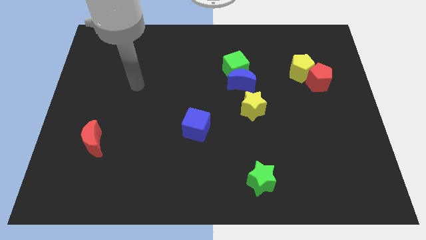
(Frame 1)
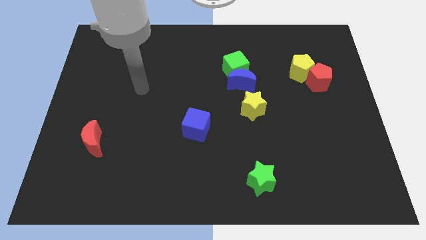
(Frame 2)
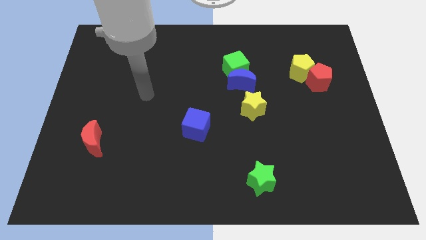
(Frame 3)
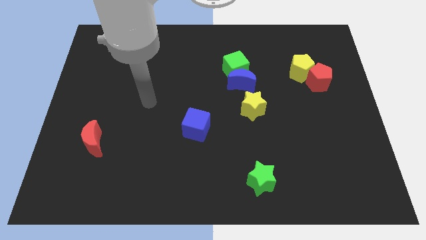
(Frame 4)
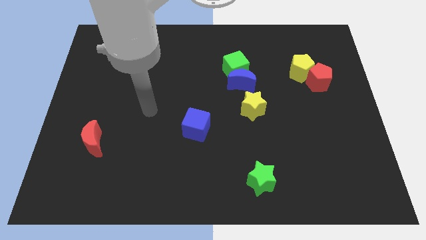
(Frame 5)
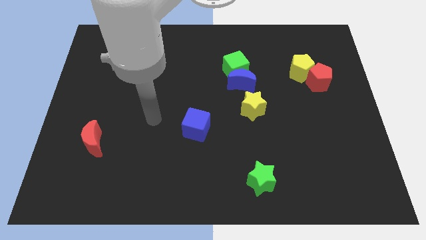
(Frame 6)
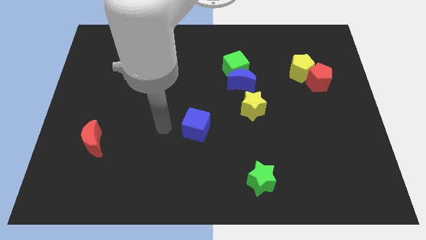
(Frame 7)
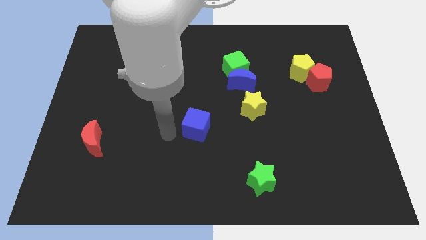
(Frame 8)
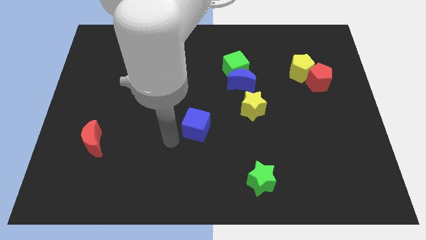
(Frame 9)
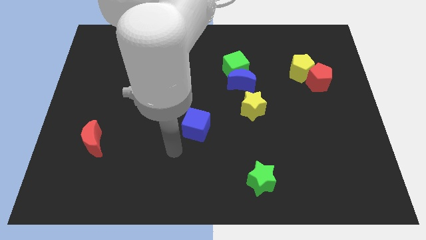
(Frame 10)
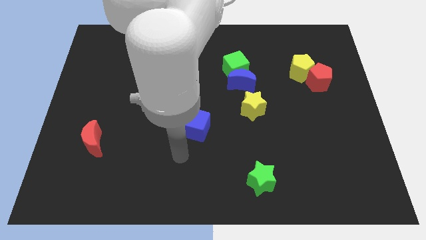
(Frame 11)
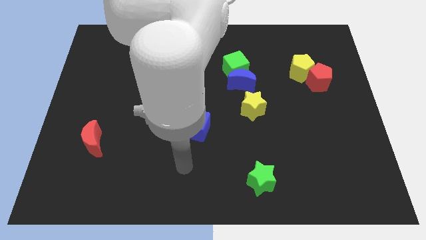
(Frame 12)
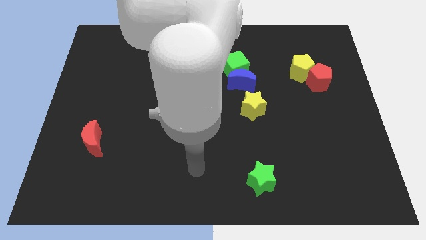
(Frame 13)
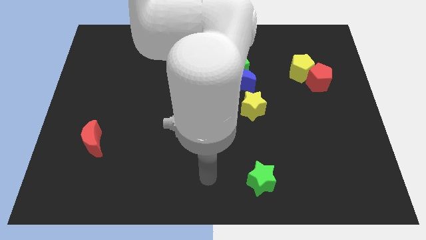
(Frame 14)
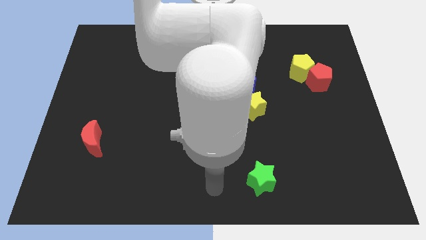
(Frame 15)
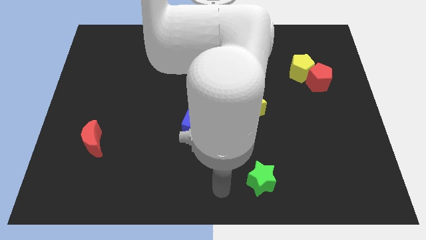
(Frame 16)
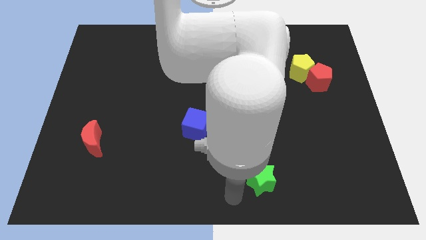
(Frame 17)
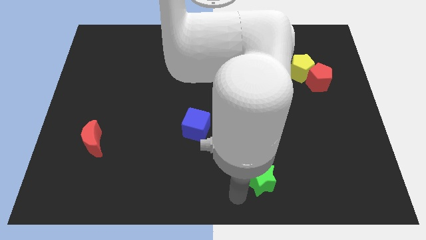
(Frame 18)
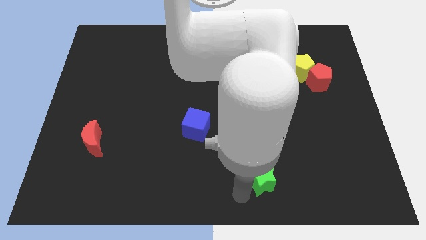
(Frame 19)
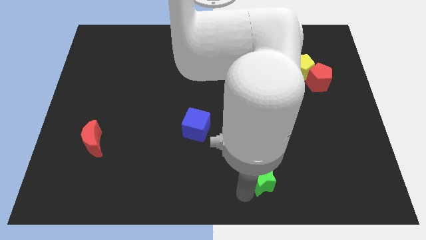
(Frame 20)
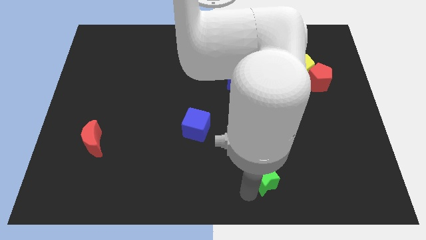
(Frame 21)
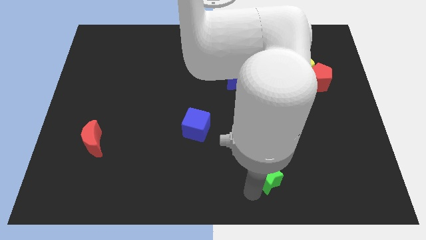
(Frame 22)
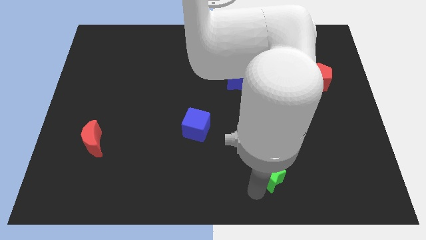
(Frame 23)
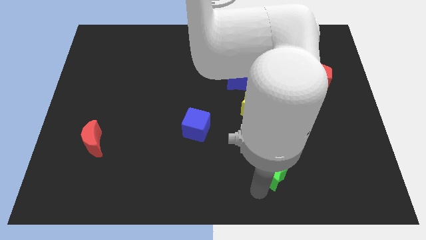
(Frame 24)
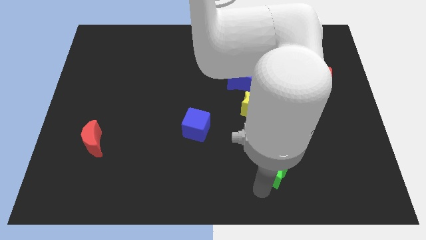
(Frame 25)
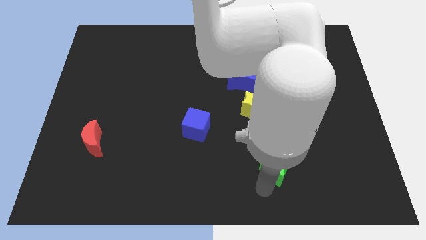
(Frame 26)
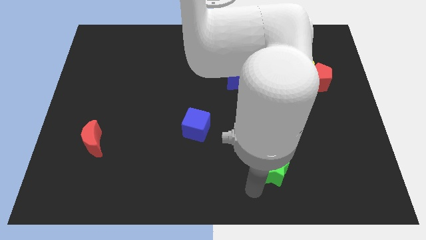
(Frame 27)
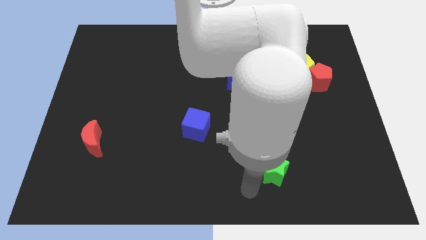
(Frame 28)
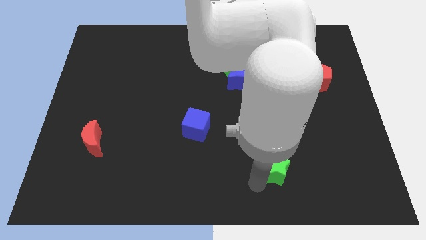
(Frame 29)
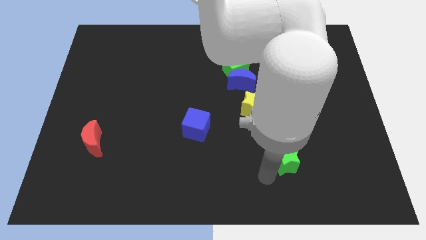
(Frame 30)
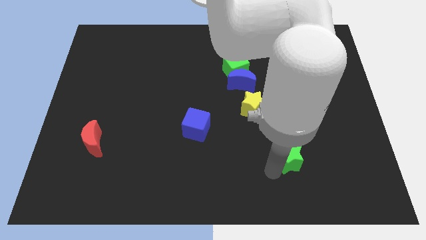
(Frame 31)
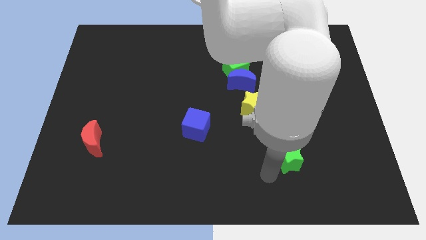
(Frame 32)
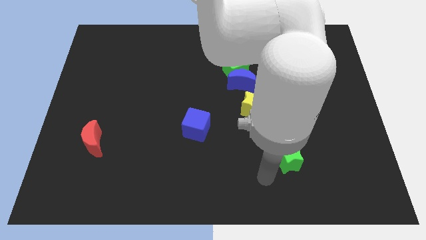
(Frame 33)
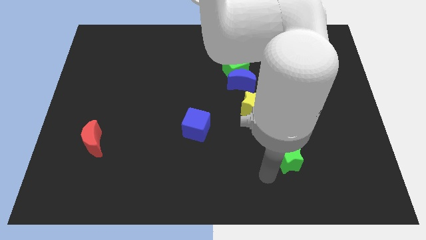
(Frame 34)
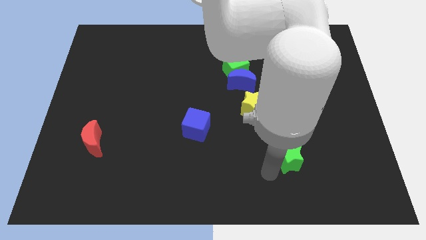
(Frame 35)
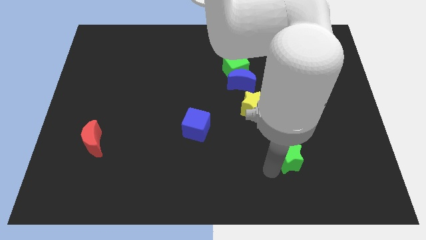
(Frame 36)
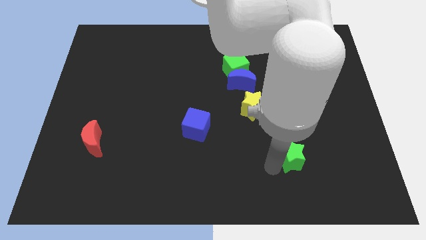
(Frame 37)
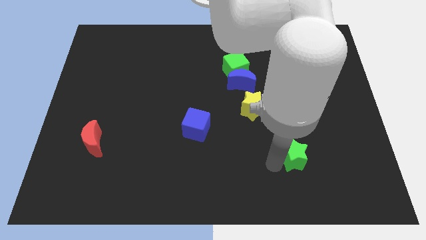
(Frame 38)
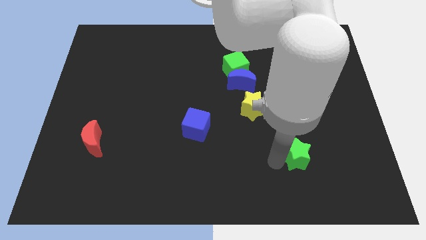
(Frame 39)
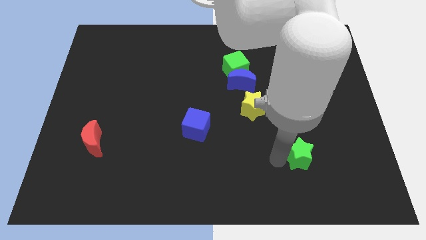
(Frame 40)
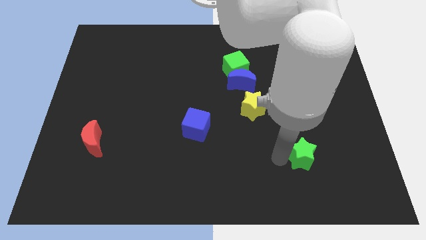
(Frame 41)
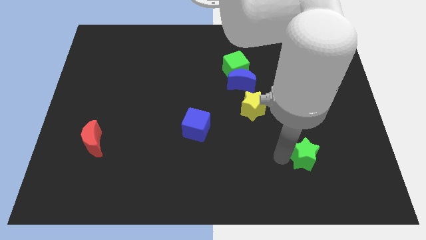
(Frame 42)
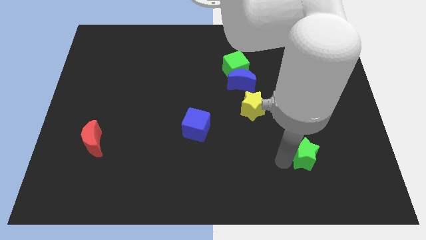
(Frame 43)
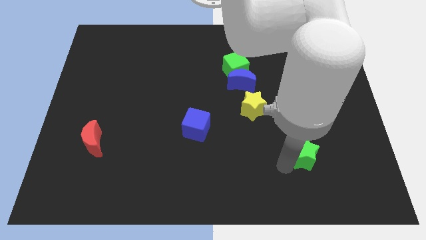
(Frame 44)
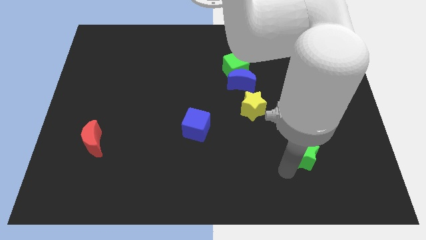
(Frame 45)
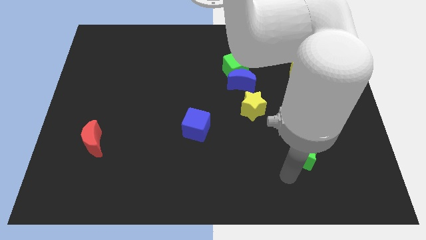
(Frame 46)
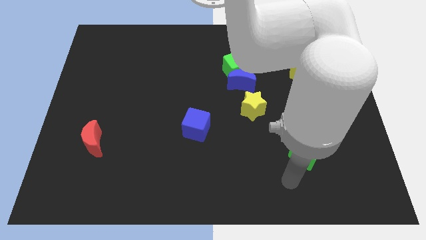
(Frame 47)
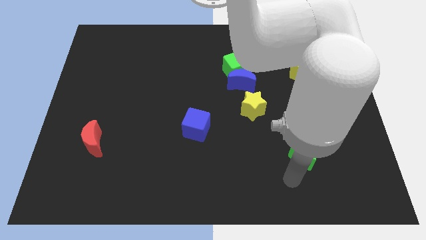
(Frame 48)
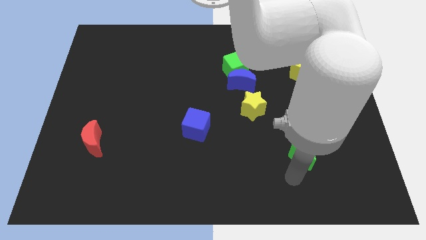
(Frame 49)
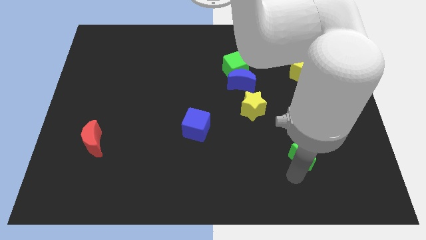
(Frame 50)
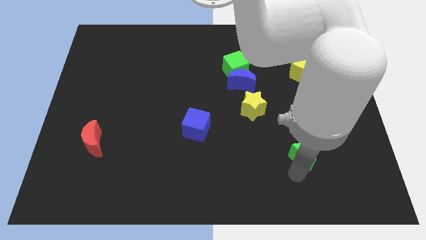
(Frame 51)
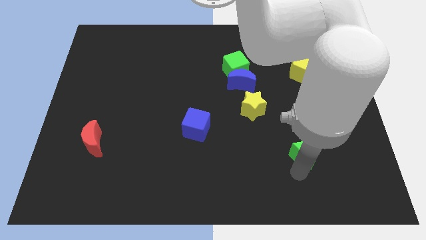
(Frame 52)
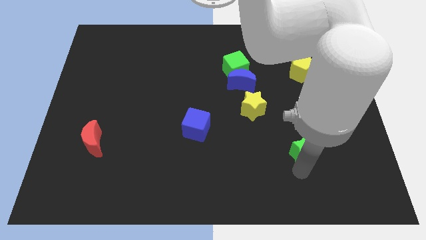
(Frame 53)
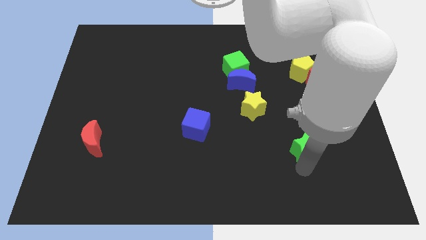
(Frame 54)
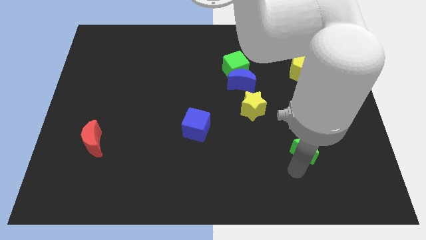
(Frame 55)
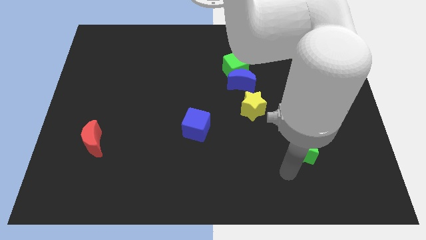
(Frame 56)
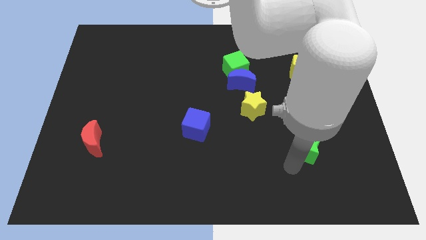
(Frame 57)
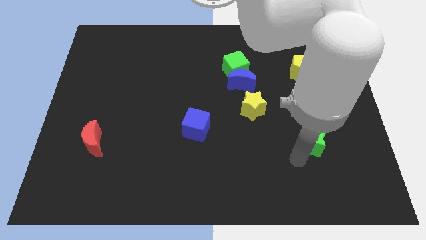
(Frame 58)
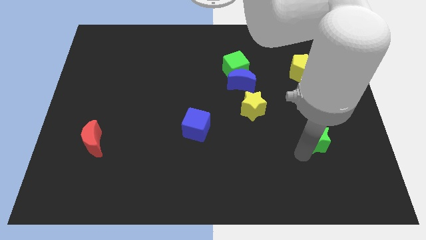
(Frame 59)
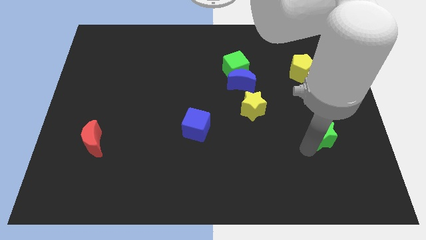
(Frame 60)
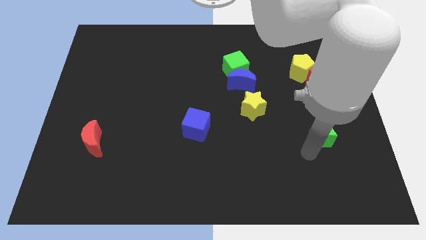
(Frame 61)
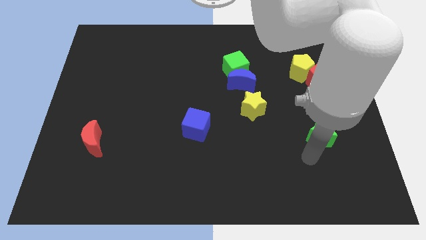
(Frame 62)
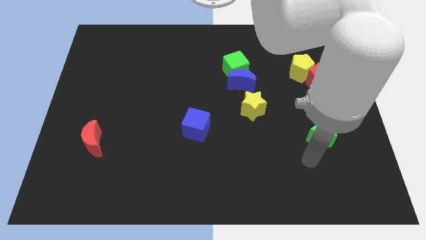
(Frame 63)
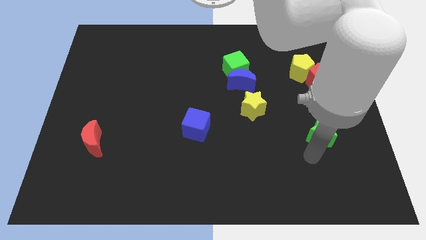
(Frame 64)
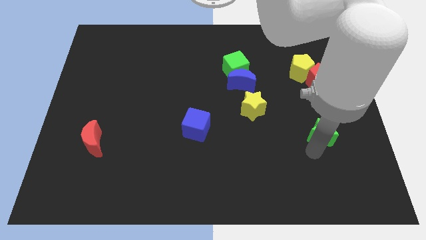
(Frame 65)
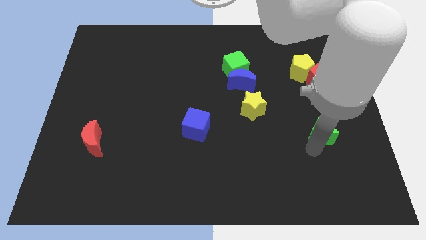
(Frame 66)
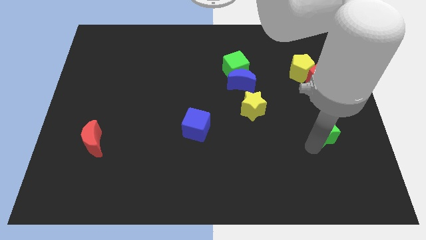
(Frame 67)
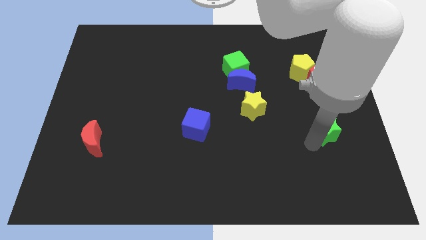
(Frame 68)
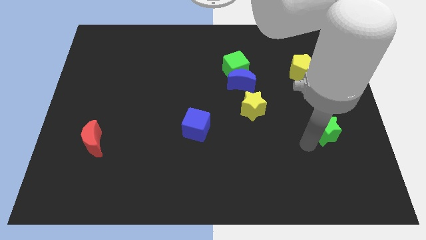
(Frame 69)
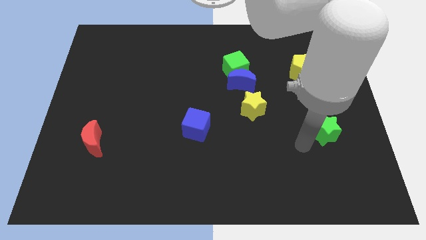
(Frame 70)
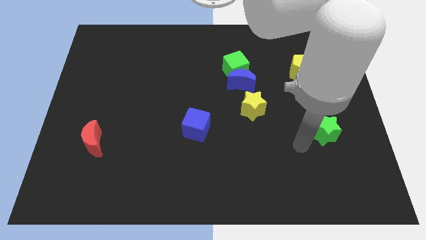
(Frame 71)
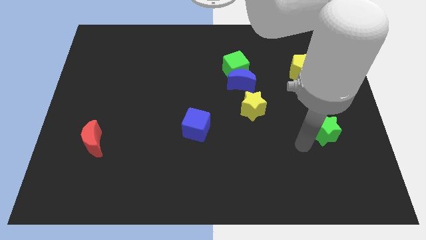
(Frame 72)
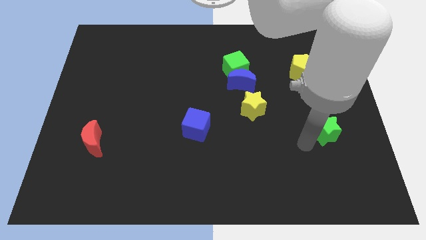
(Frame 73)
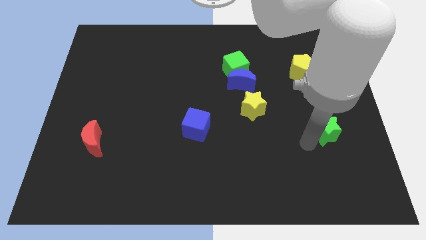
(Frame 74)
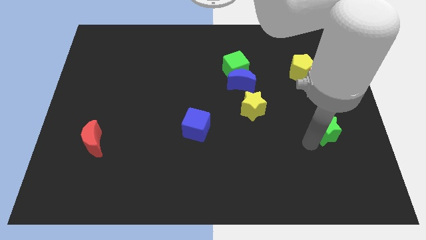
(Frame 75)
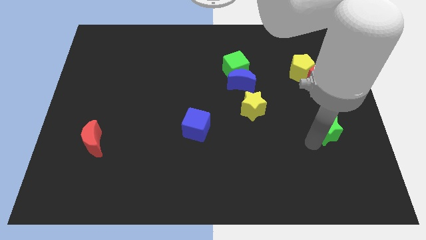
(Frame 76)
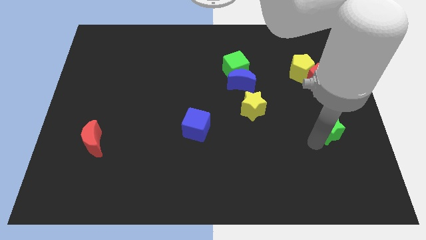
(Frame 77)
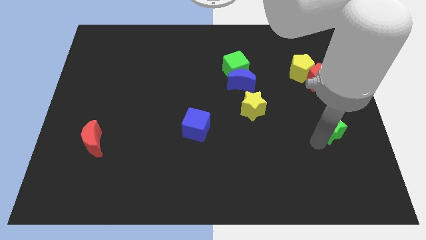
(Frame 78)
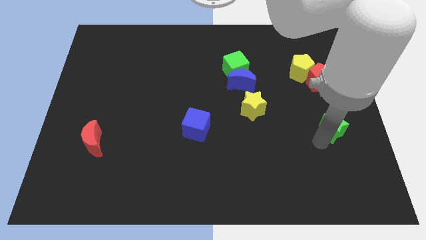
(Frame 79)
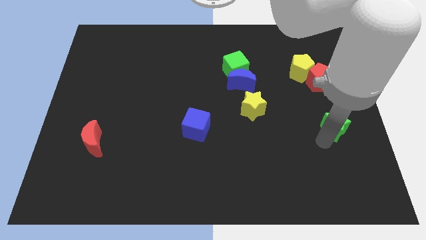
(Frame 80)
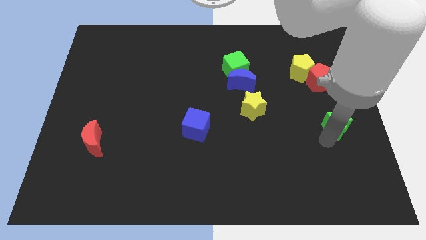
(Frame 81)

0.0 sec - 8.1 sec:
slide the green star to the center right
